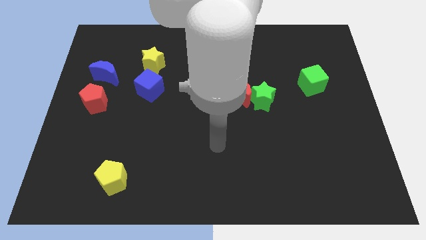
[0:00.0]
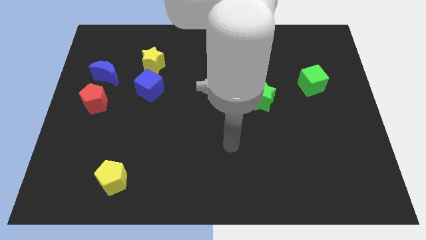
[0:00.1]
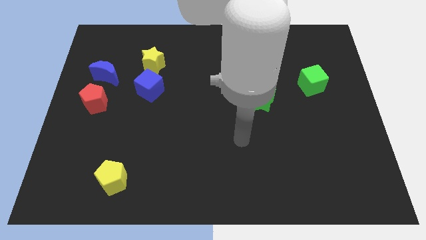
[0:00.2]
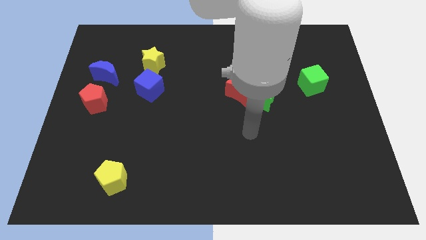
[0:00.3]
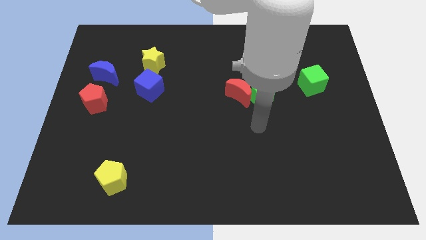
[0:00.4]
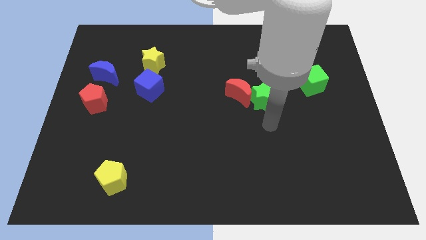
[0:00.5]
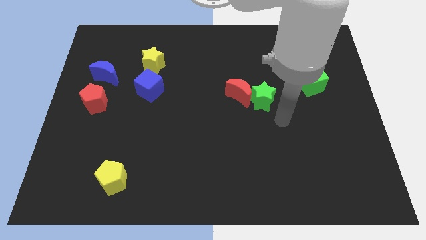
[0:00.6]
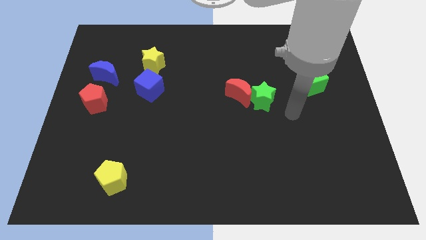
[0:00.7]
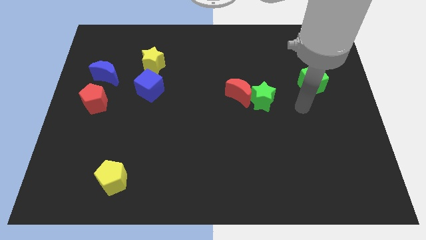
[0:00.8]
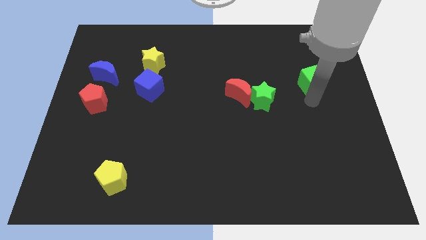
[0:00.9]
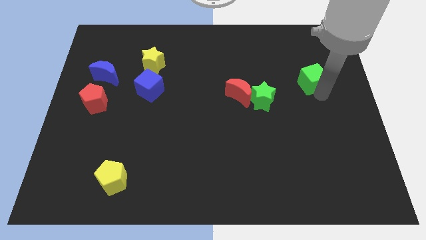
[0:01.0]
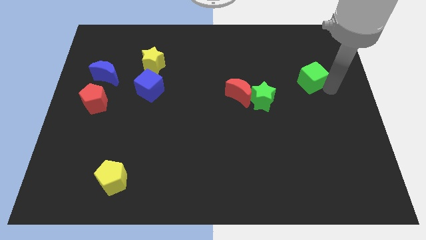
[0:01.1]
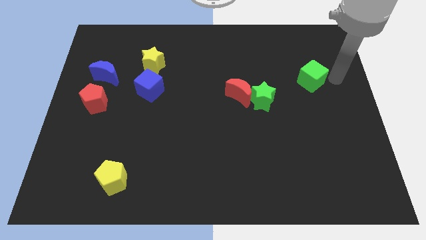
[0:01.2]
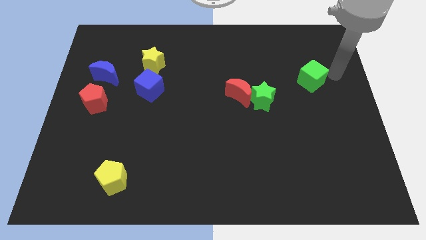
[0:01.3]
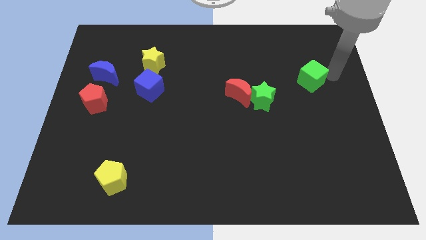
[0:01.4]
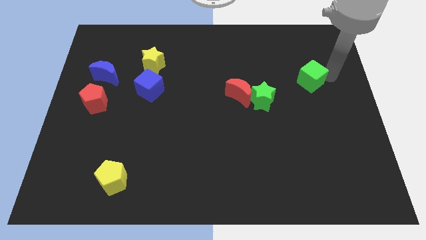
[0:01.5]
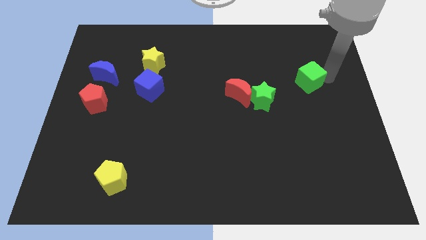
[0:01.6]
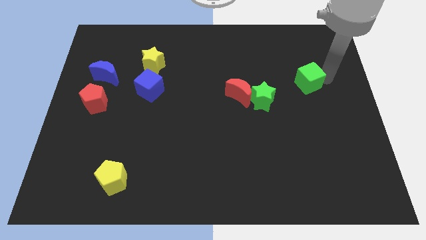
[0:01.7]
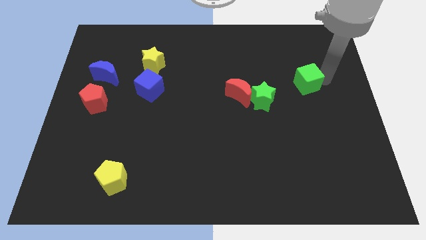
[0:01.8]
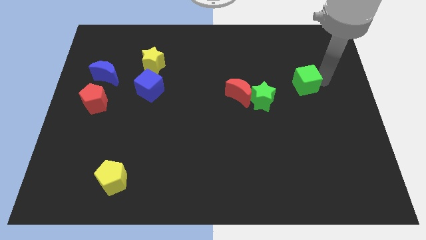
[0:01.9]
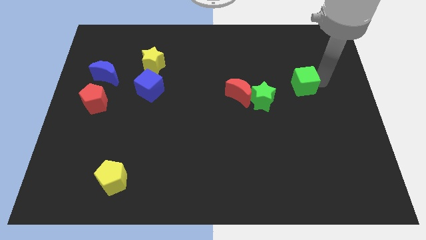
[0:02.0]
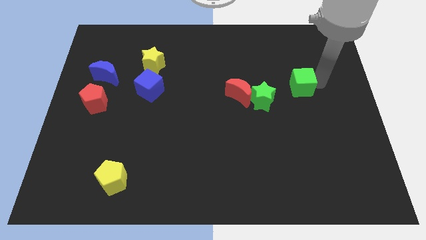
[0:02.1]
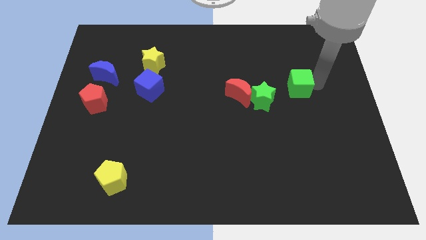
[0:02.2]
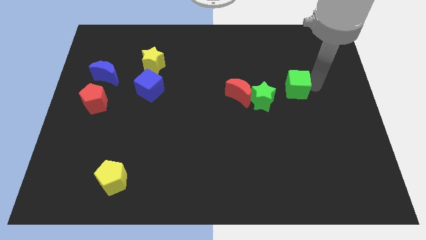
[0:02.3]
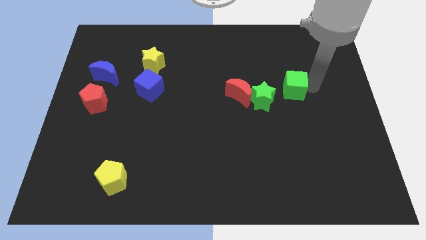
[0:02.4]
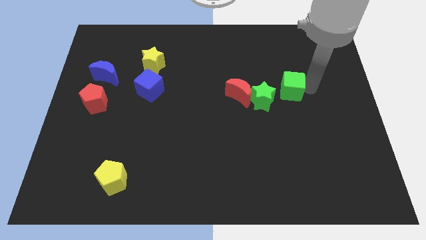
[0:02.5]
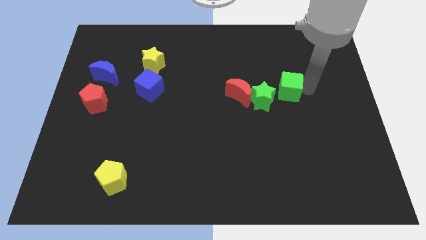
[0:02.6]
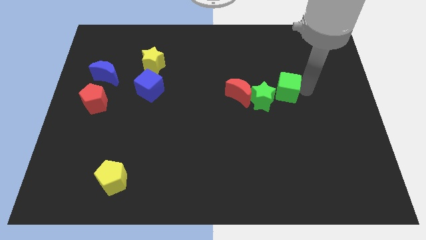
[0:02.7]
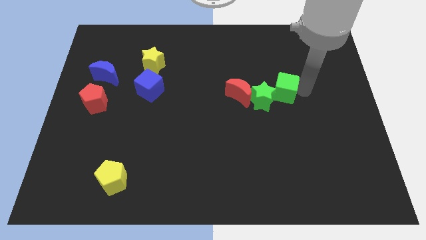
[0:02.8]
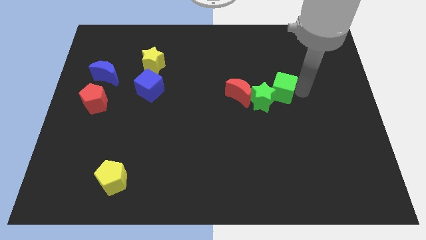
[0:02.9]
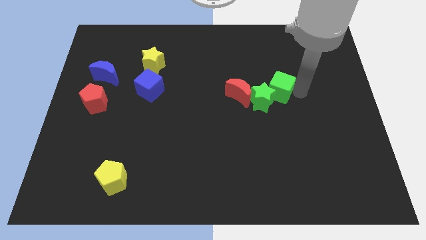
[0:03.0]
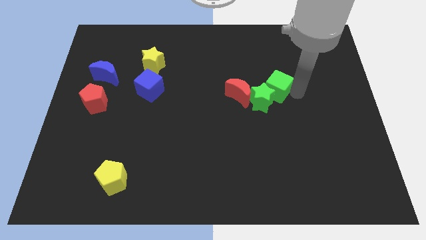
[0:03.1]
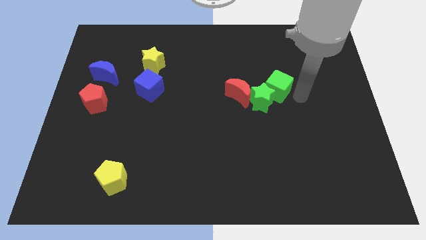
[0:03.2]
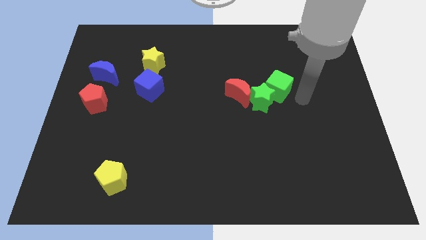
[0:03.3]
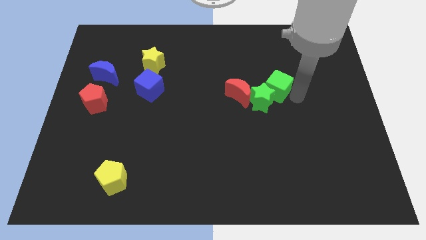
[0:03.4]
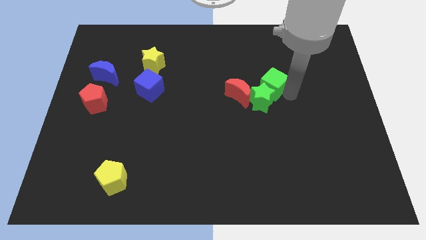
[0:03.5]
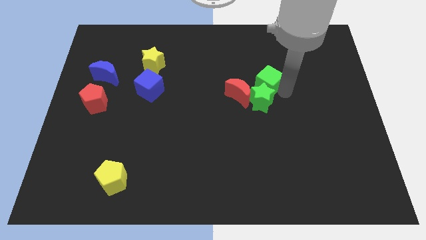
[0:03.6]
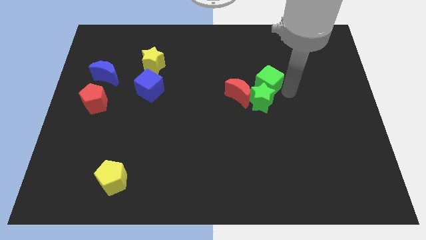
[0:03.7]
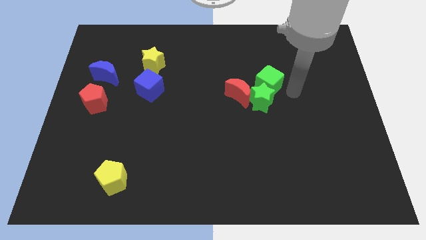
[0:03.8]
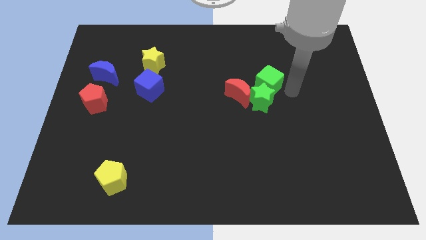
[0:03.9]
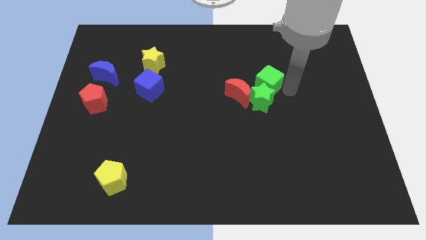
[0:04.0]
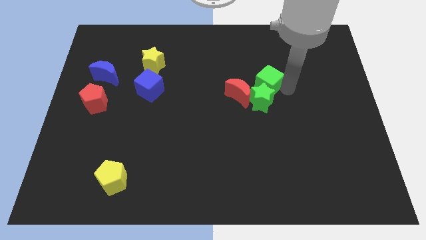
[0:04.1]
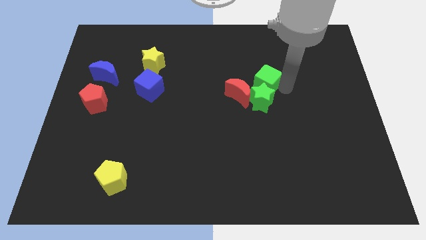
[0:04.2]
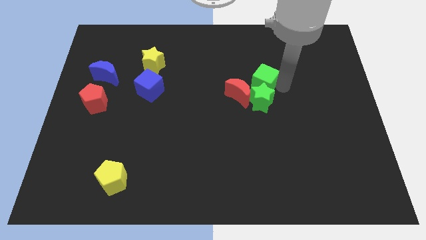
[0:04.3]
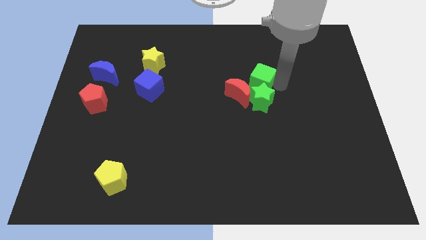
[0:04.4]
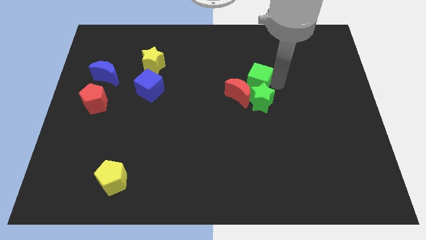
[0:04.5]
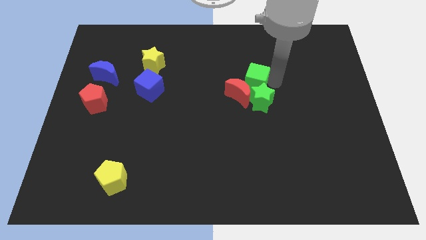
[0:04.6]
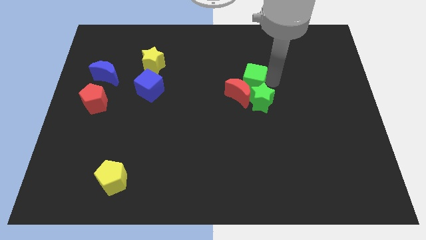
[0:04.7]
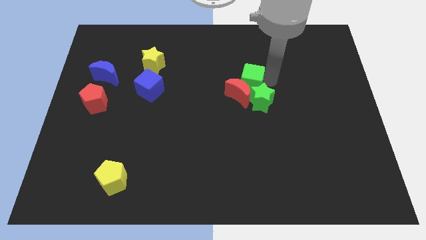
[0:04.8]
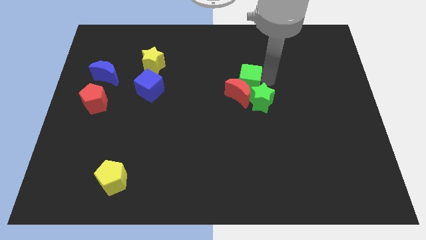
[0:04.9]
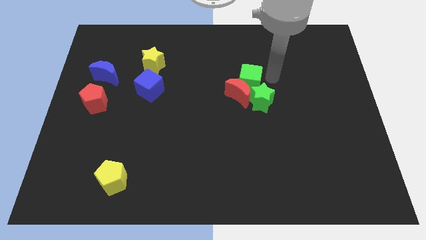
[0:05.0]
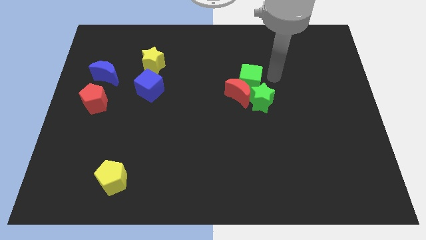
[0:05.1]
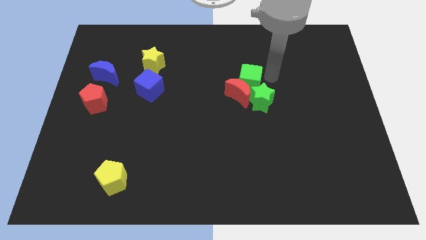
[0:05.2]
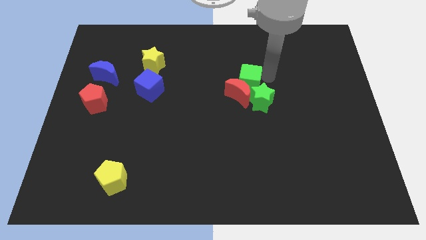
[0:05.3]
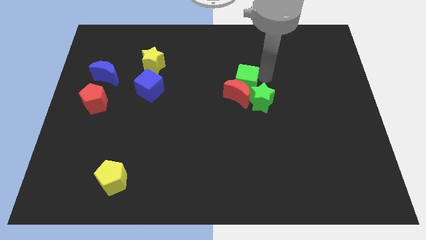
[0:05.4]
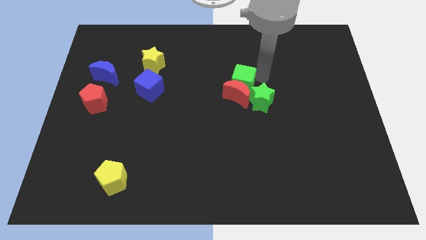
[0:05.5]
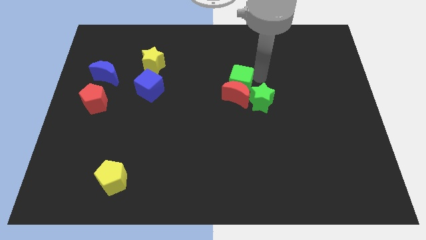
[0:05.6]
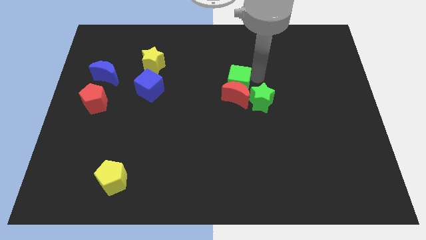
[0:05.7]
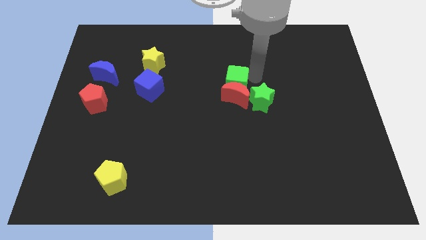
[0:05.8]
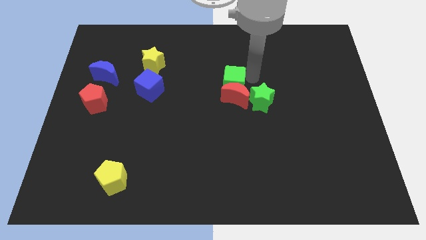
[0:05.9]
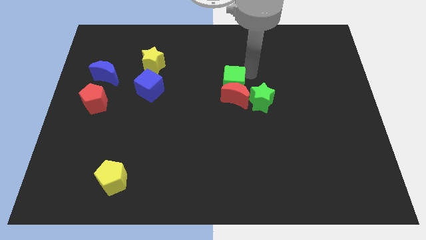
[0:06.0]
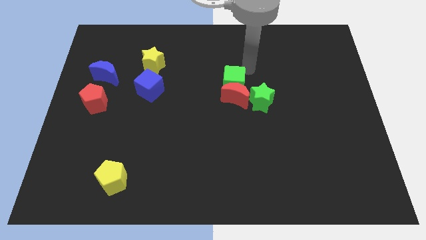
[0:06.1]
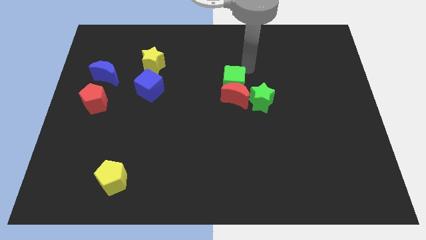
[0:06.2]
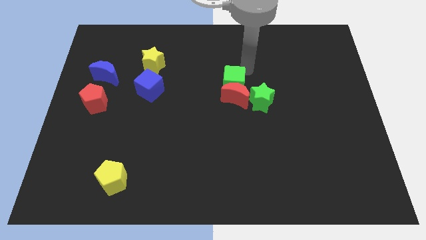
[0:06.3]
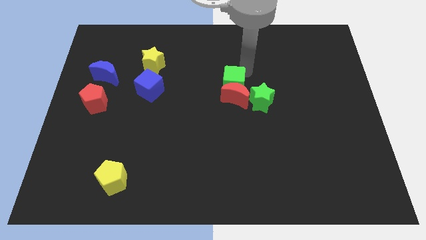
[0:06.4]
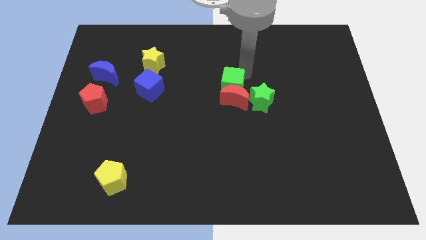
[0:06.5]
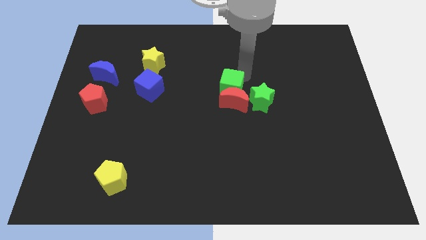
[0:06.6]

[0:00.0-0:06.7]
move the green cube just left of the green star

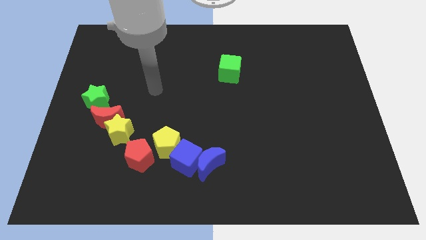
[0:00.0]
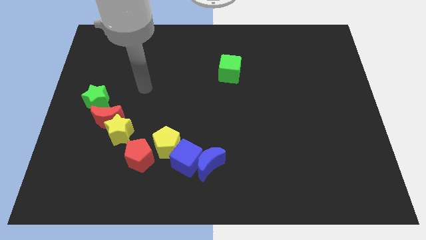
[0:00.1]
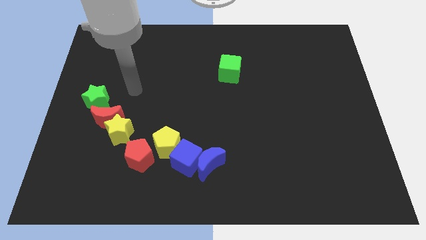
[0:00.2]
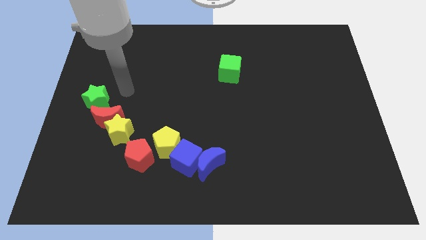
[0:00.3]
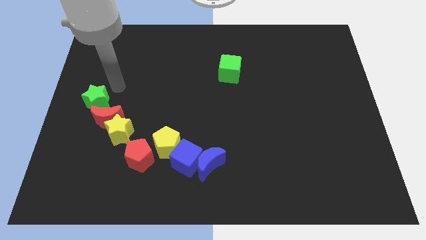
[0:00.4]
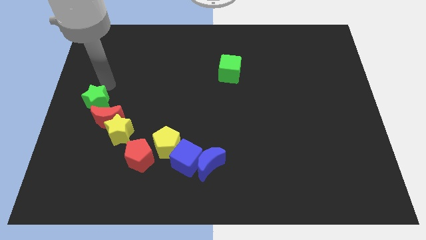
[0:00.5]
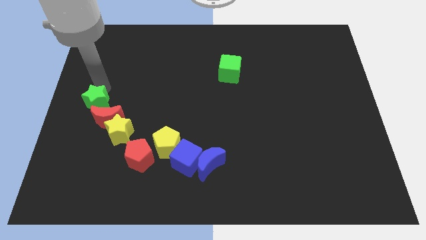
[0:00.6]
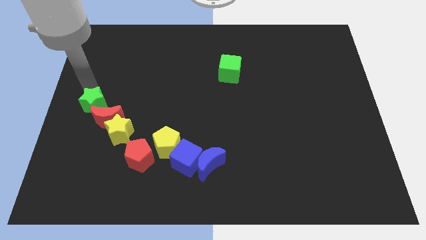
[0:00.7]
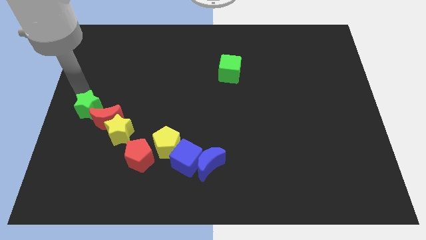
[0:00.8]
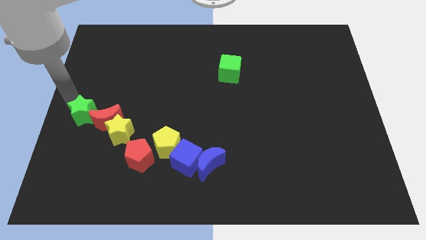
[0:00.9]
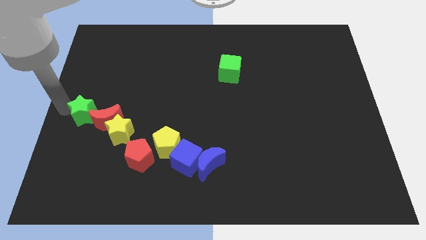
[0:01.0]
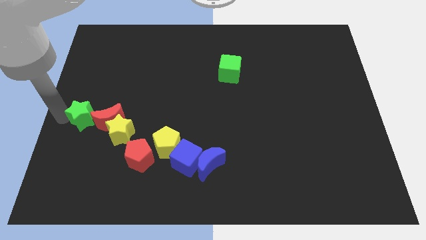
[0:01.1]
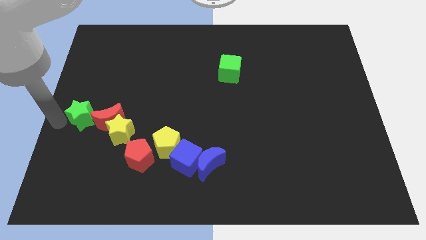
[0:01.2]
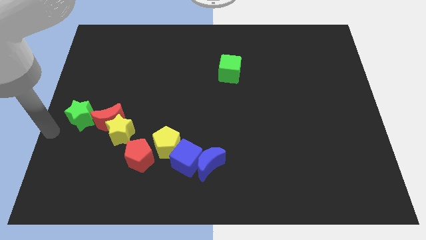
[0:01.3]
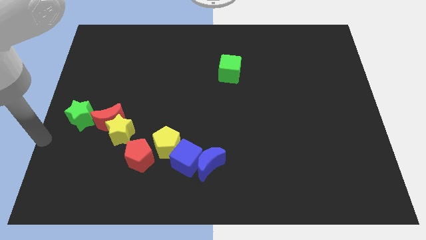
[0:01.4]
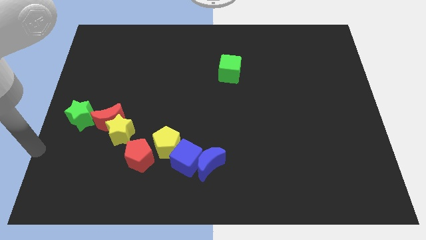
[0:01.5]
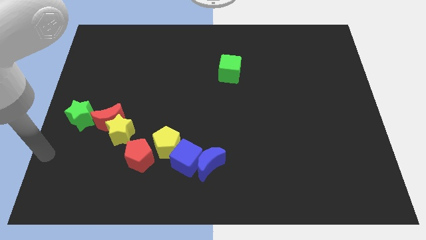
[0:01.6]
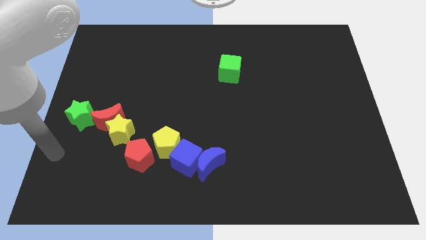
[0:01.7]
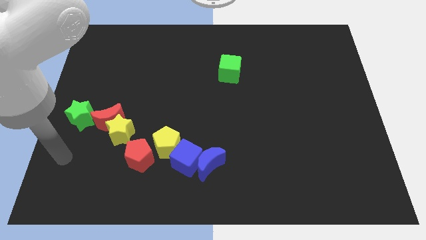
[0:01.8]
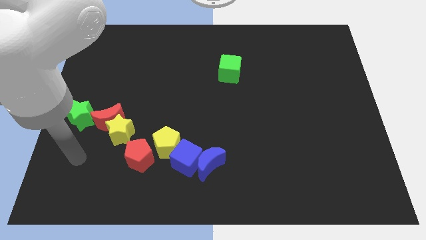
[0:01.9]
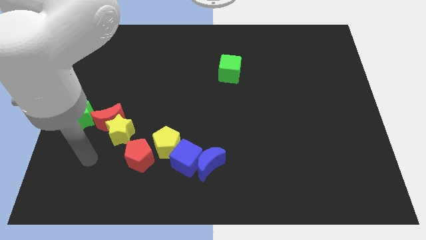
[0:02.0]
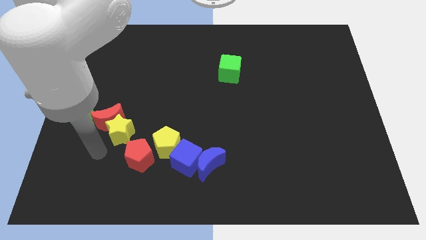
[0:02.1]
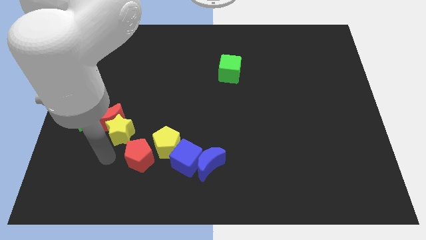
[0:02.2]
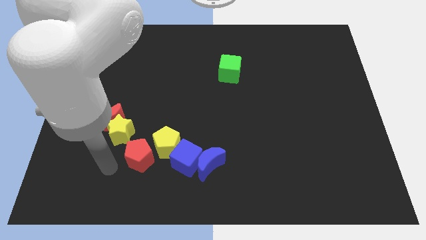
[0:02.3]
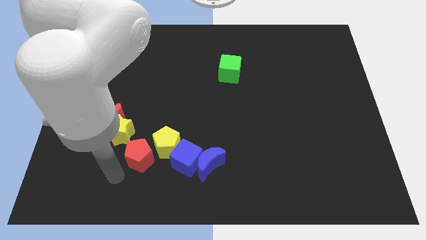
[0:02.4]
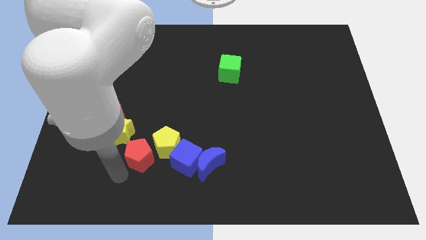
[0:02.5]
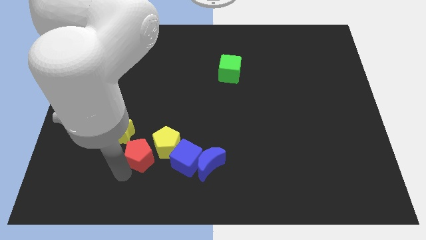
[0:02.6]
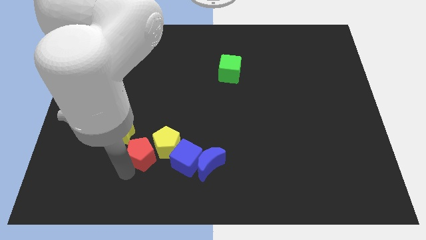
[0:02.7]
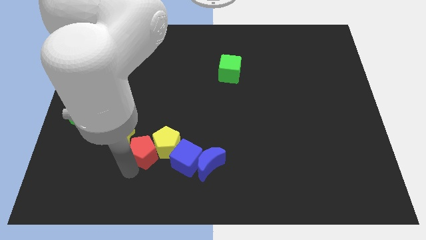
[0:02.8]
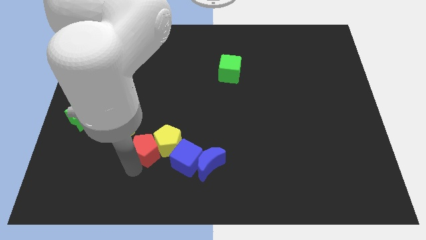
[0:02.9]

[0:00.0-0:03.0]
move the red pentagon to the top left side of the blue cube
